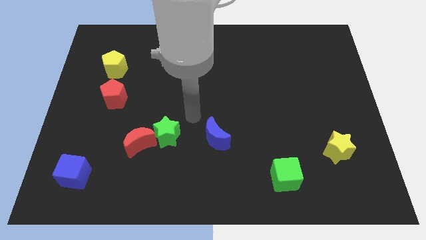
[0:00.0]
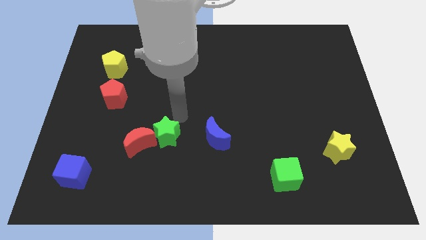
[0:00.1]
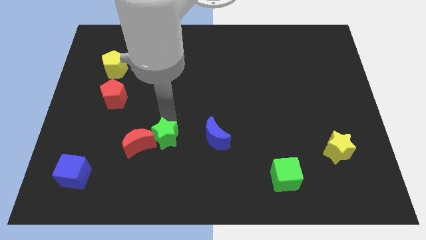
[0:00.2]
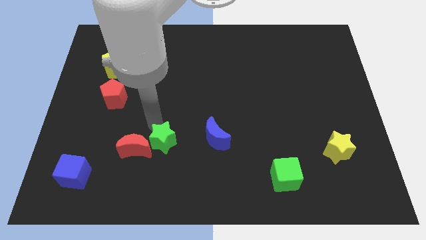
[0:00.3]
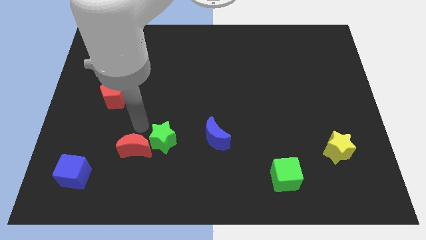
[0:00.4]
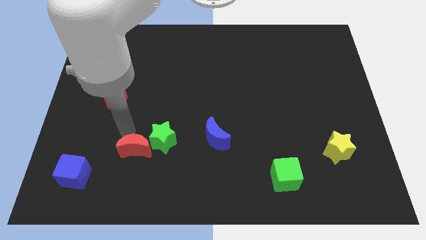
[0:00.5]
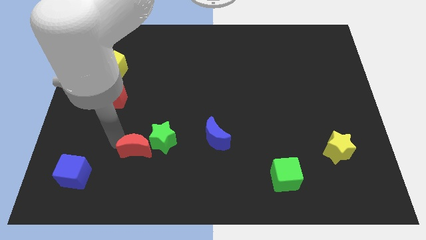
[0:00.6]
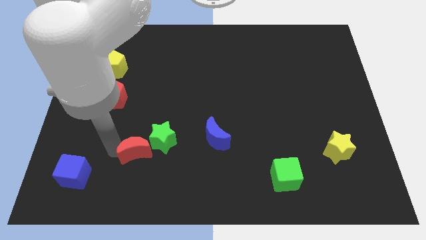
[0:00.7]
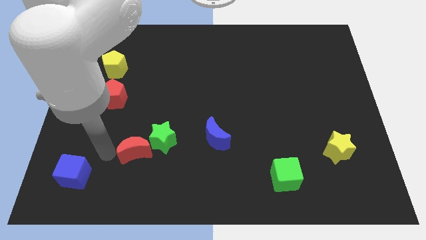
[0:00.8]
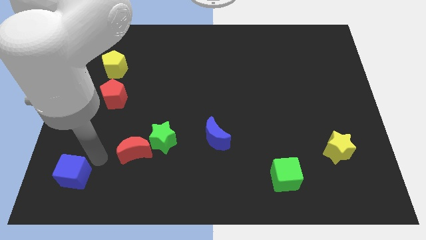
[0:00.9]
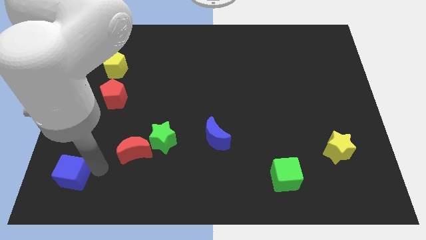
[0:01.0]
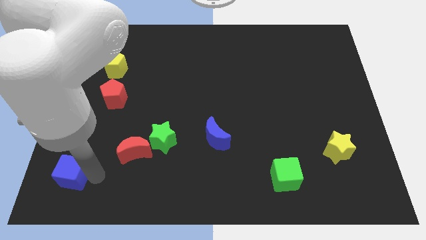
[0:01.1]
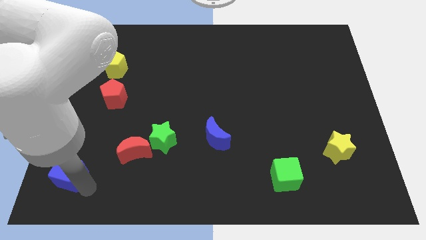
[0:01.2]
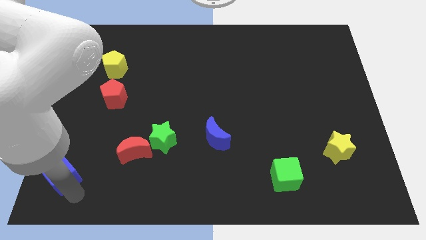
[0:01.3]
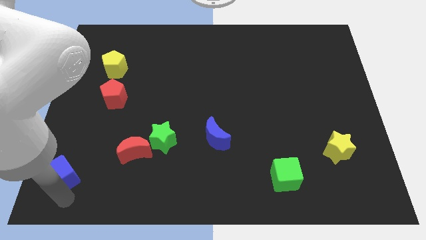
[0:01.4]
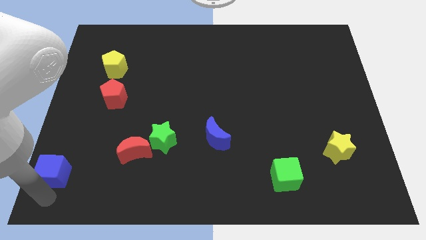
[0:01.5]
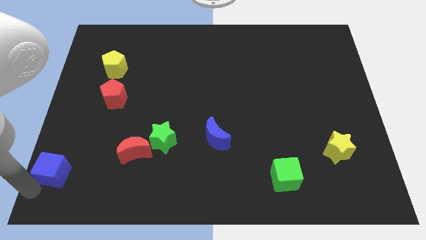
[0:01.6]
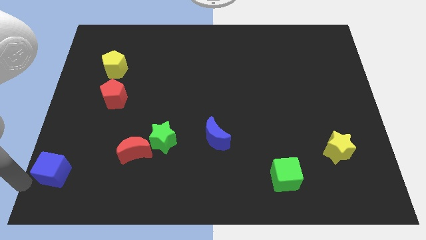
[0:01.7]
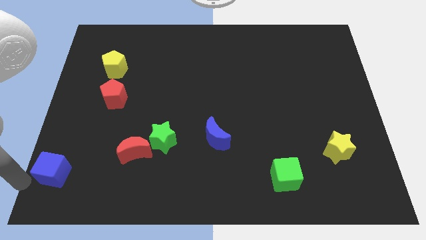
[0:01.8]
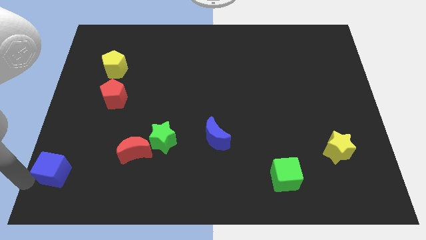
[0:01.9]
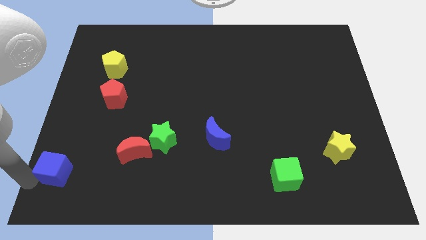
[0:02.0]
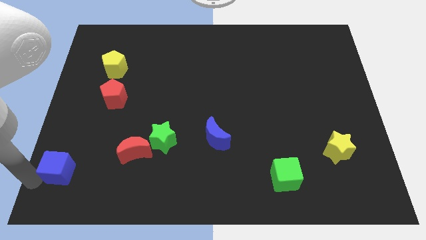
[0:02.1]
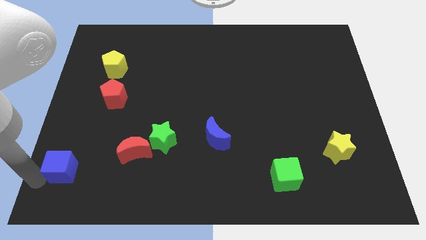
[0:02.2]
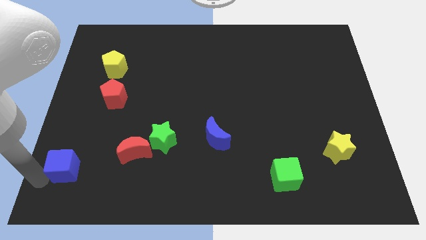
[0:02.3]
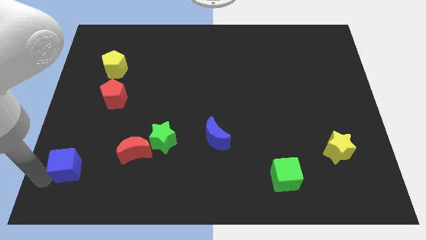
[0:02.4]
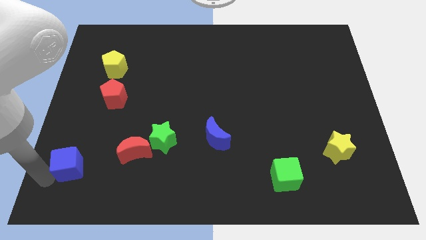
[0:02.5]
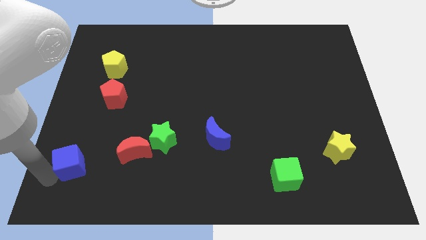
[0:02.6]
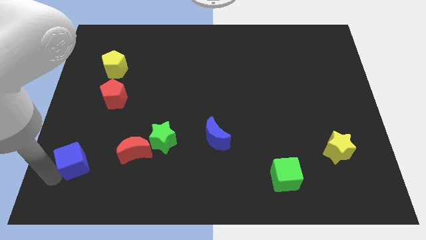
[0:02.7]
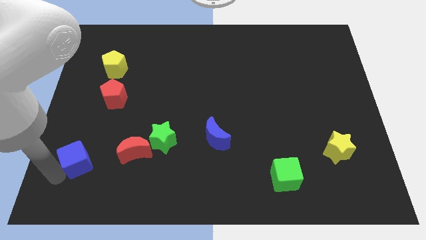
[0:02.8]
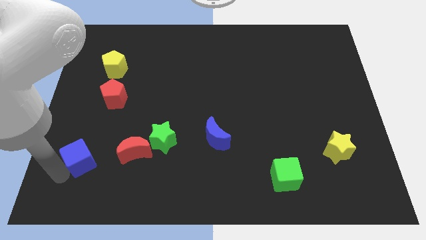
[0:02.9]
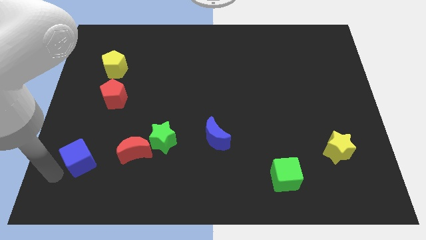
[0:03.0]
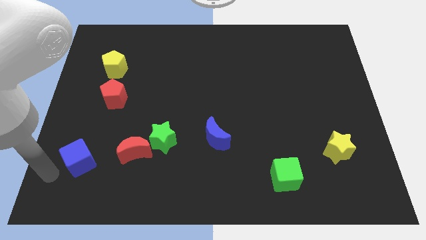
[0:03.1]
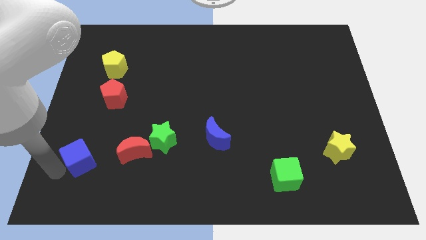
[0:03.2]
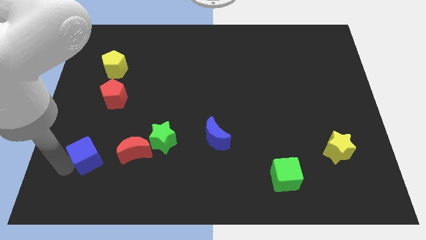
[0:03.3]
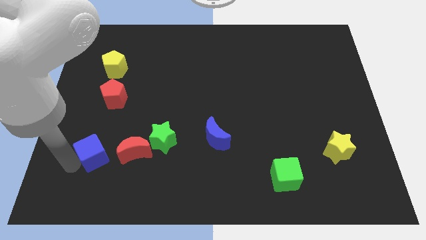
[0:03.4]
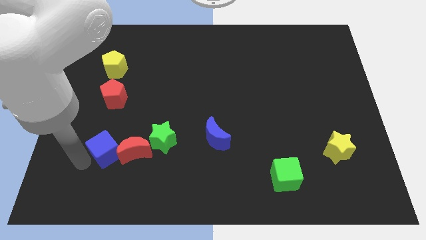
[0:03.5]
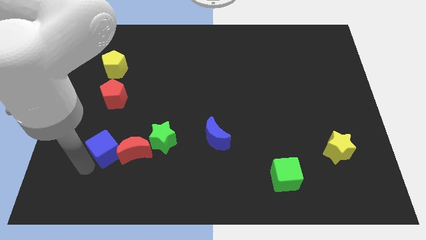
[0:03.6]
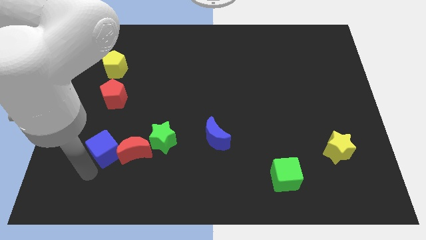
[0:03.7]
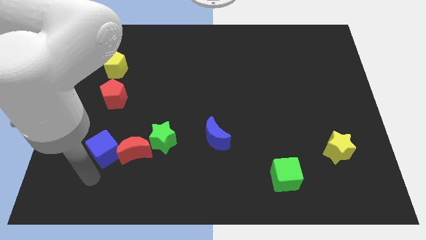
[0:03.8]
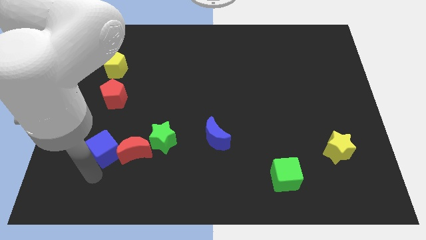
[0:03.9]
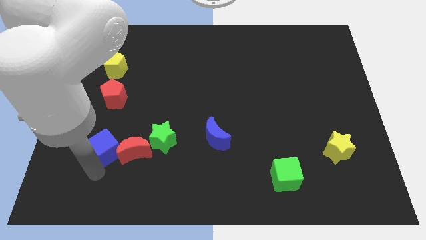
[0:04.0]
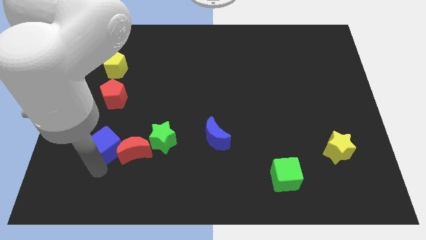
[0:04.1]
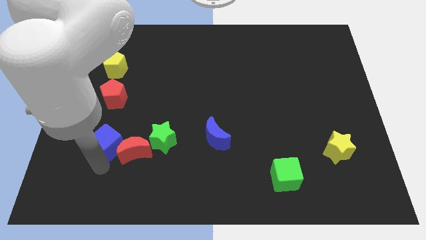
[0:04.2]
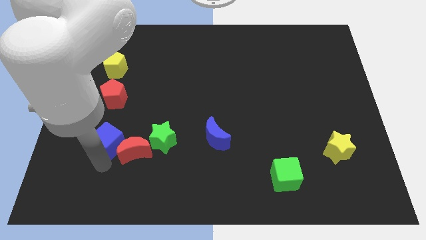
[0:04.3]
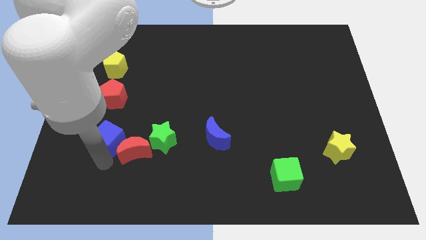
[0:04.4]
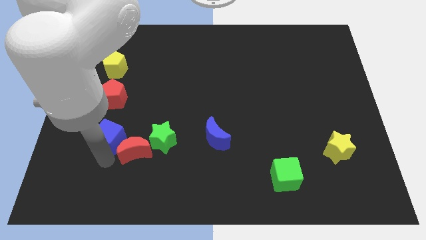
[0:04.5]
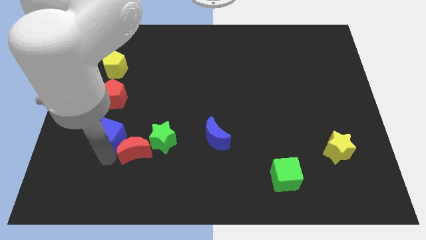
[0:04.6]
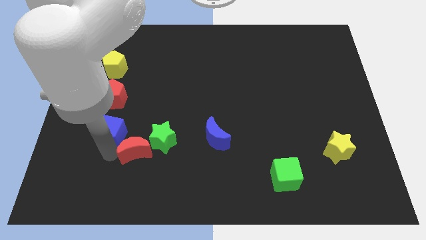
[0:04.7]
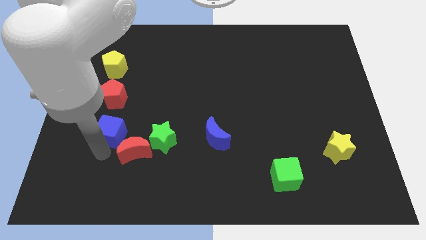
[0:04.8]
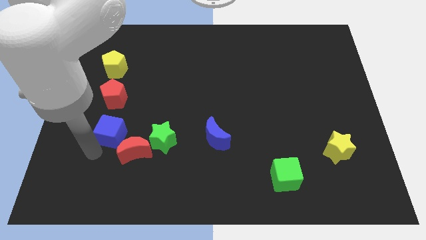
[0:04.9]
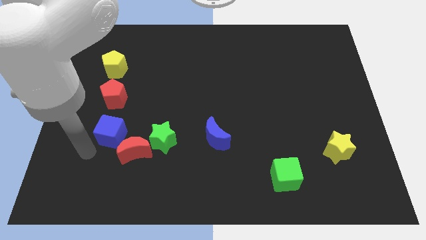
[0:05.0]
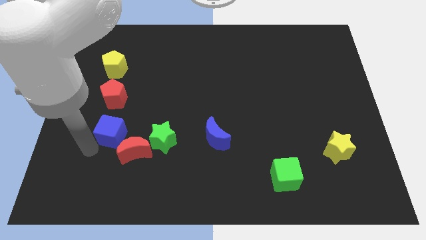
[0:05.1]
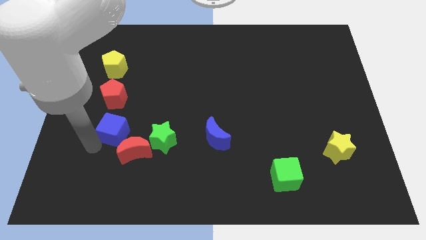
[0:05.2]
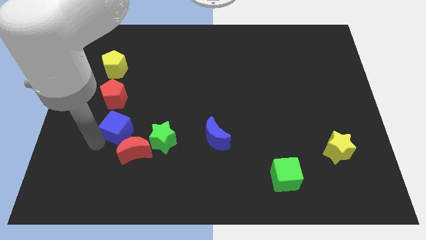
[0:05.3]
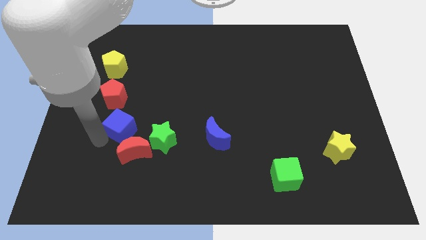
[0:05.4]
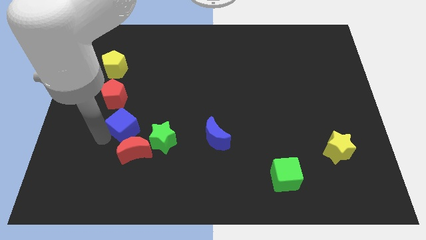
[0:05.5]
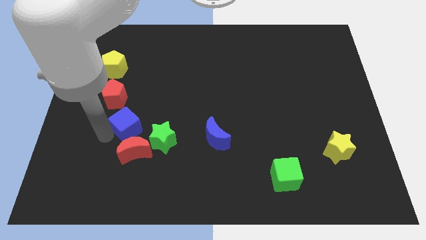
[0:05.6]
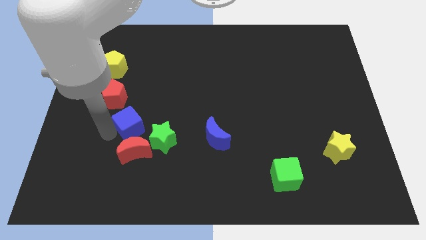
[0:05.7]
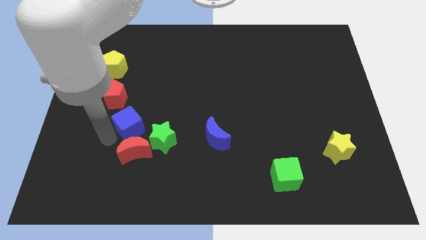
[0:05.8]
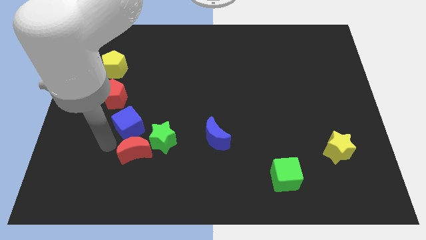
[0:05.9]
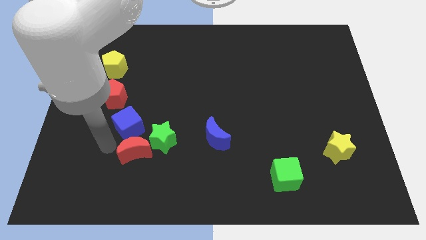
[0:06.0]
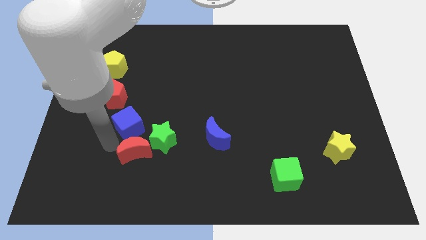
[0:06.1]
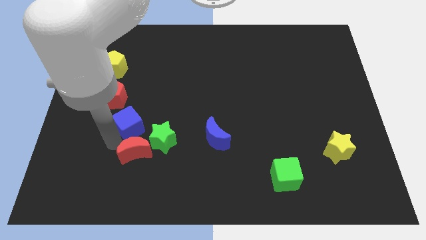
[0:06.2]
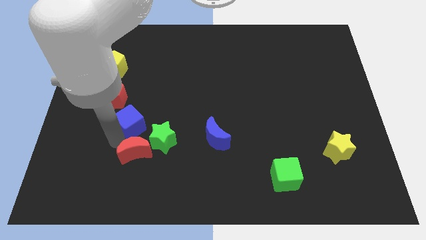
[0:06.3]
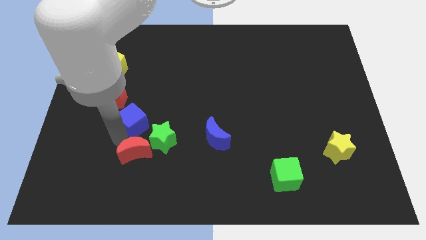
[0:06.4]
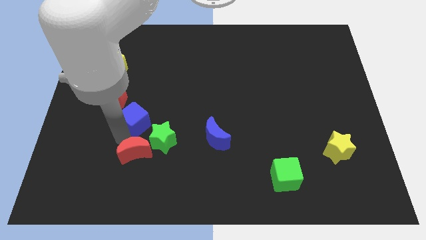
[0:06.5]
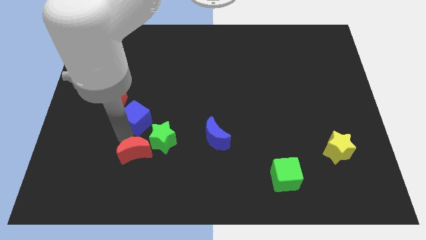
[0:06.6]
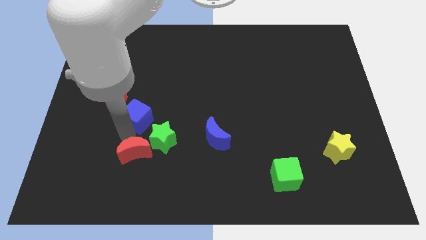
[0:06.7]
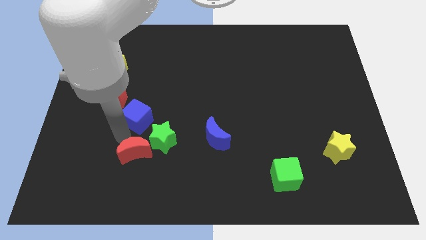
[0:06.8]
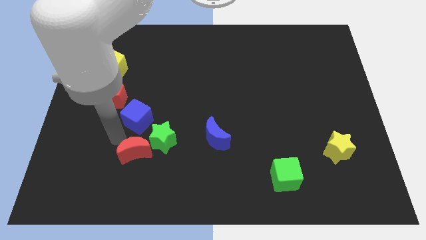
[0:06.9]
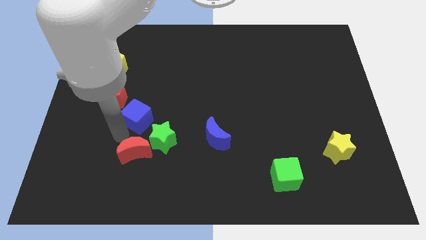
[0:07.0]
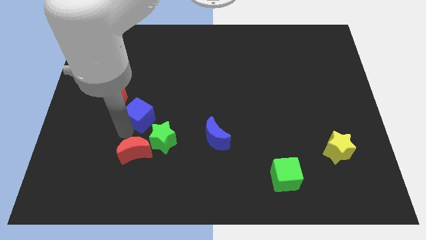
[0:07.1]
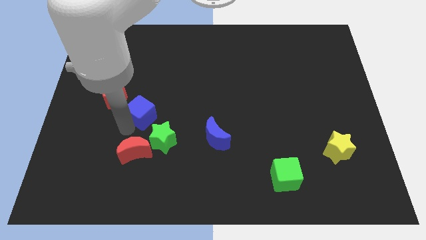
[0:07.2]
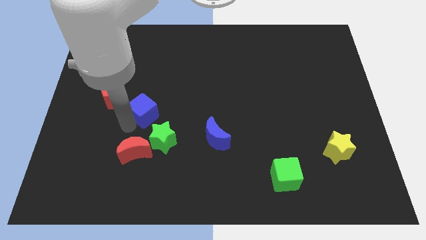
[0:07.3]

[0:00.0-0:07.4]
push the blue cube upwards and then right

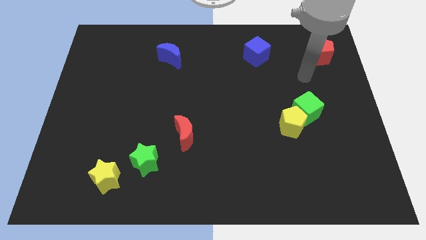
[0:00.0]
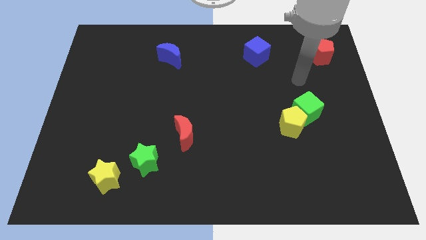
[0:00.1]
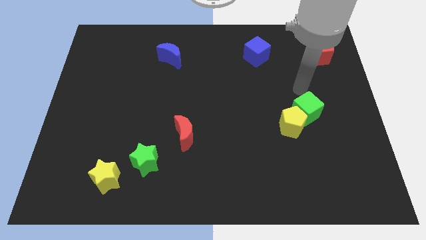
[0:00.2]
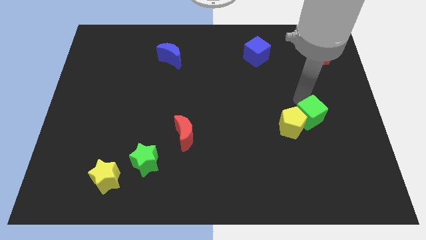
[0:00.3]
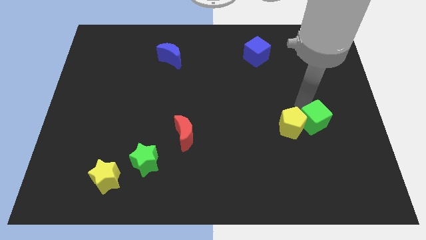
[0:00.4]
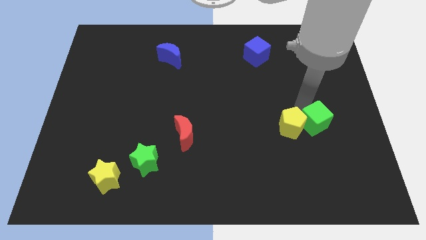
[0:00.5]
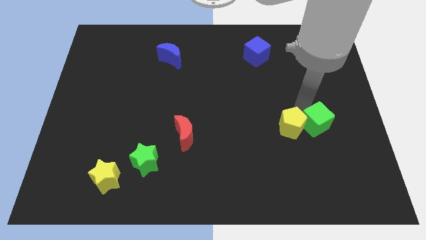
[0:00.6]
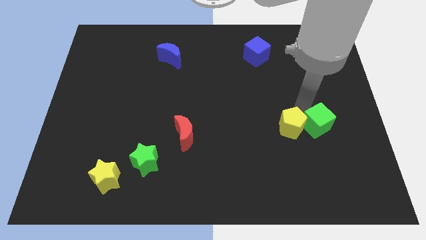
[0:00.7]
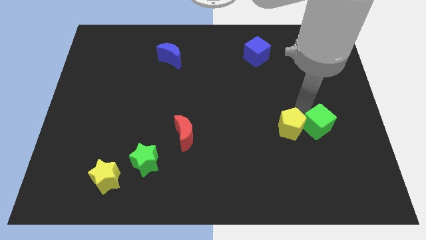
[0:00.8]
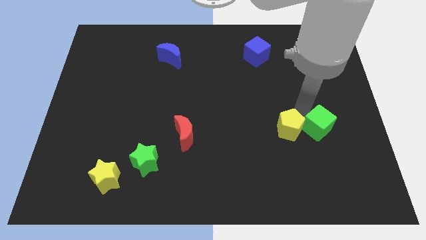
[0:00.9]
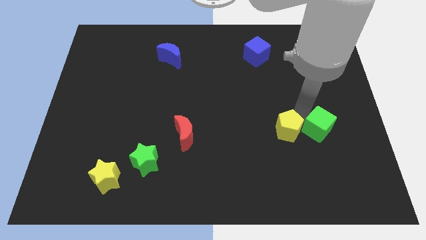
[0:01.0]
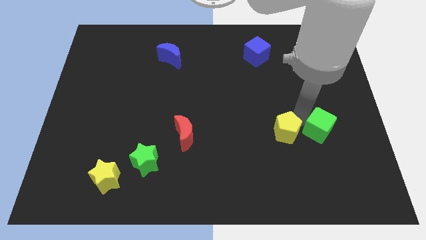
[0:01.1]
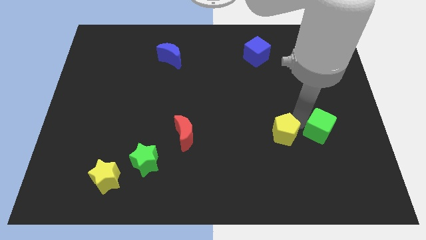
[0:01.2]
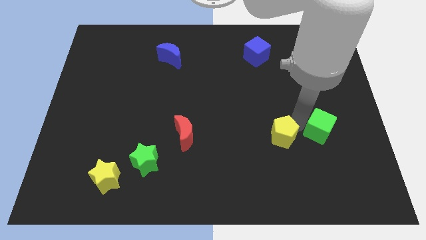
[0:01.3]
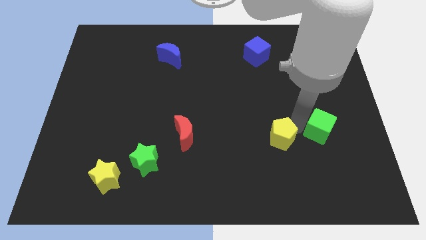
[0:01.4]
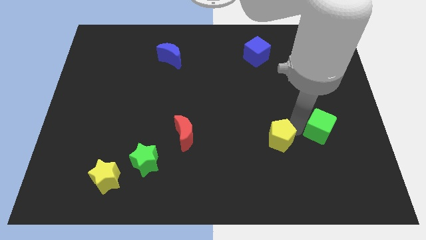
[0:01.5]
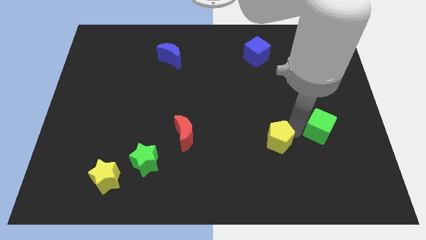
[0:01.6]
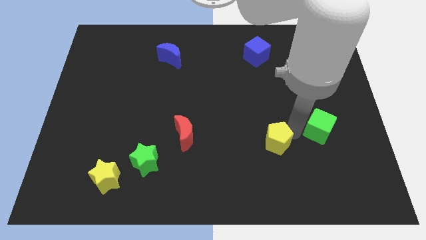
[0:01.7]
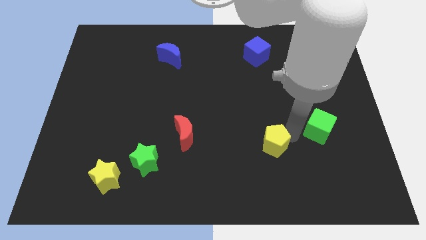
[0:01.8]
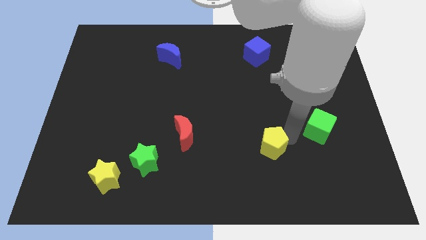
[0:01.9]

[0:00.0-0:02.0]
move the yellow pentagon down and then left slightly
